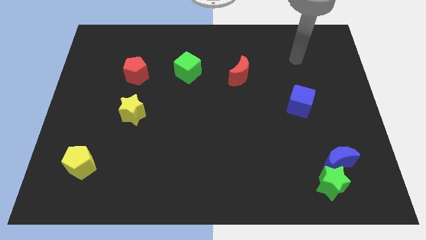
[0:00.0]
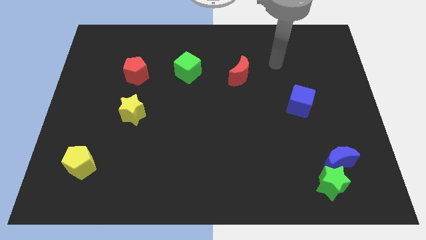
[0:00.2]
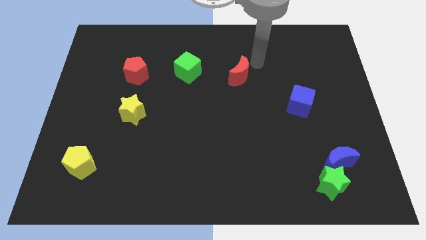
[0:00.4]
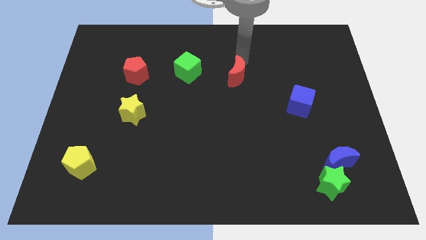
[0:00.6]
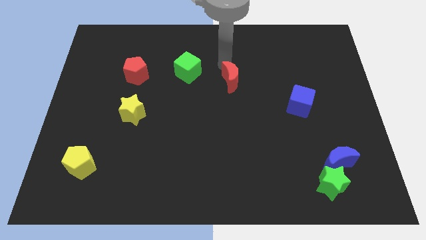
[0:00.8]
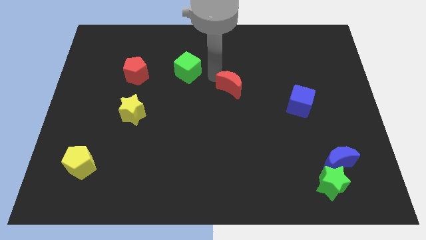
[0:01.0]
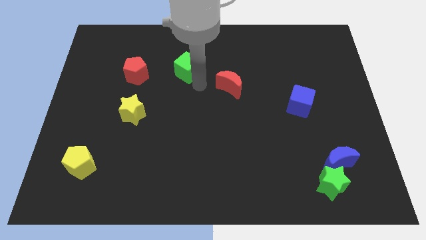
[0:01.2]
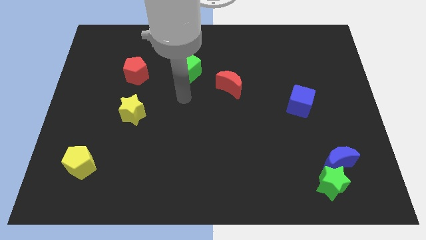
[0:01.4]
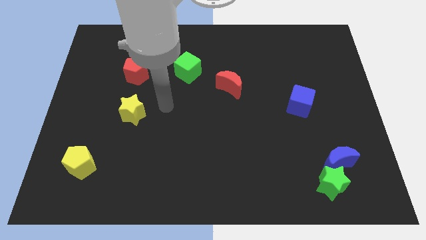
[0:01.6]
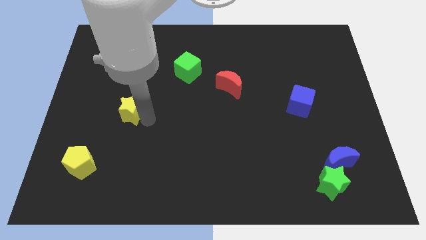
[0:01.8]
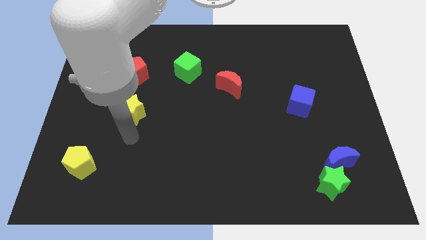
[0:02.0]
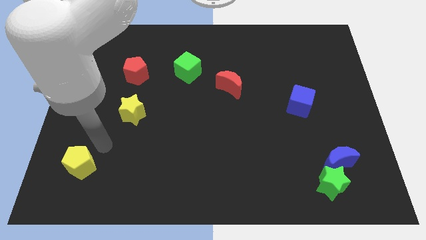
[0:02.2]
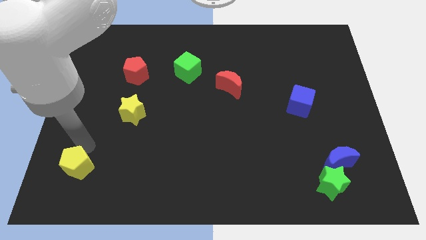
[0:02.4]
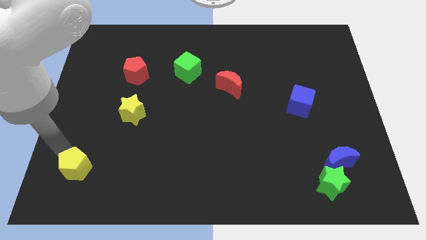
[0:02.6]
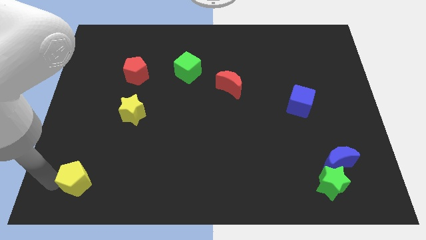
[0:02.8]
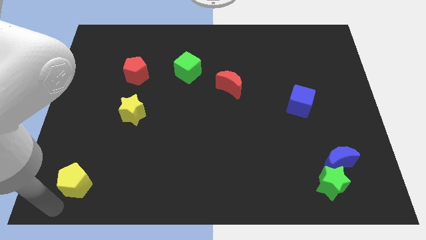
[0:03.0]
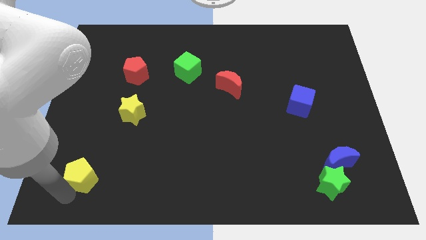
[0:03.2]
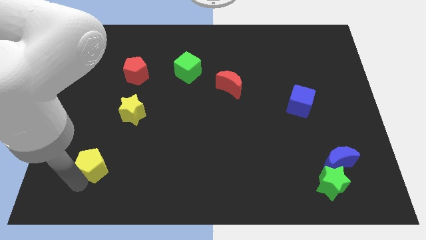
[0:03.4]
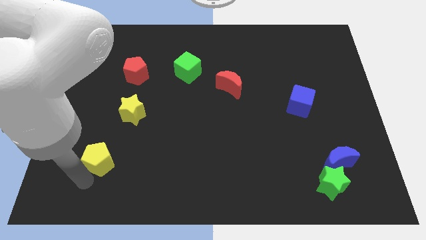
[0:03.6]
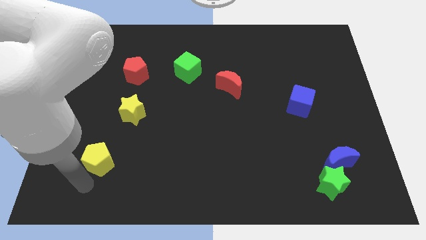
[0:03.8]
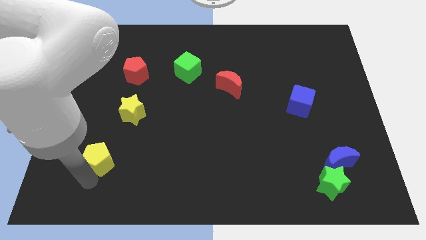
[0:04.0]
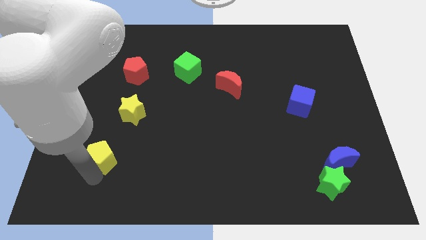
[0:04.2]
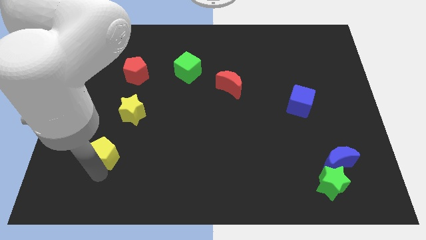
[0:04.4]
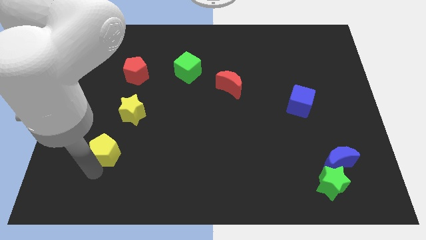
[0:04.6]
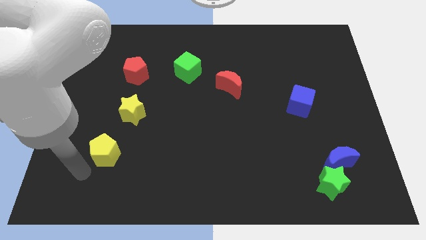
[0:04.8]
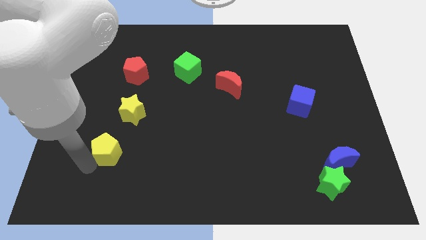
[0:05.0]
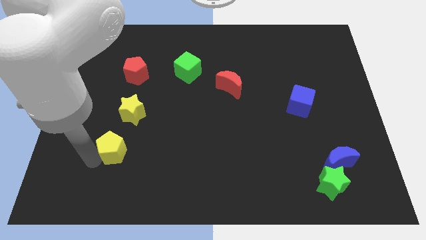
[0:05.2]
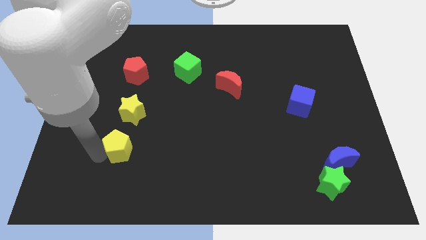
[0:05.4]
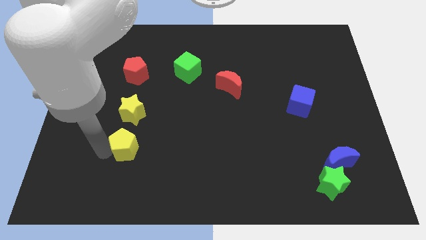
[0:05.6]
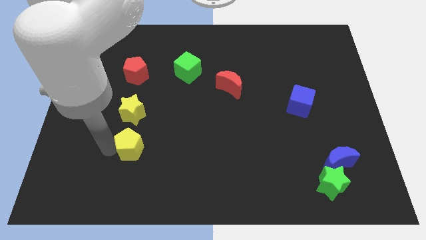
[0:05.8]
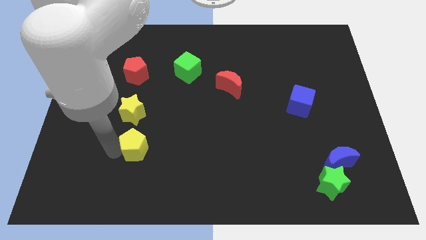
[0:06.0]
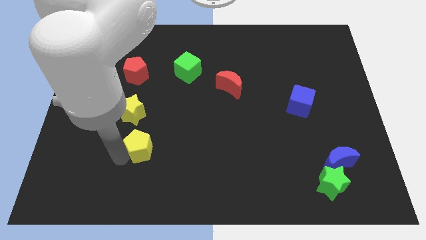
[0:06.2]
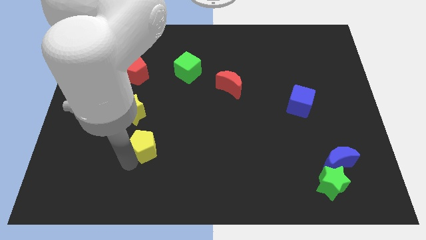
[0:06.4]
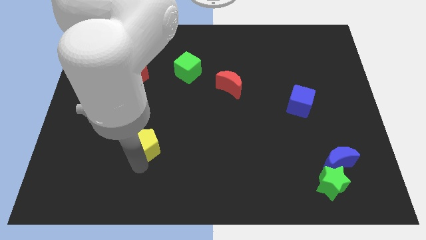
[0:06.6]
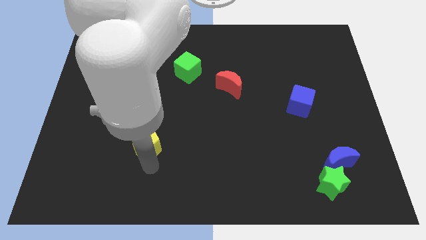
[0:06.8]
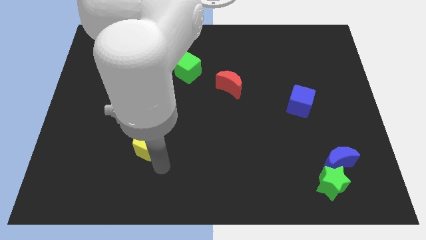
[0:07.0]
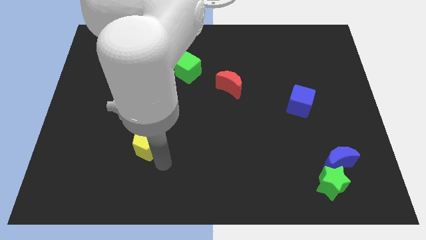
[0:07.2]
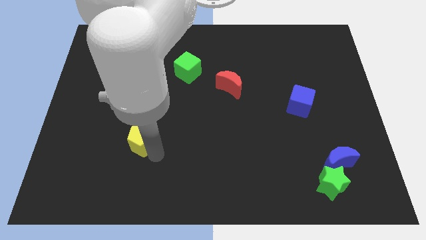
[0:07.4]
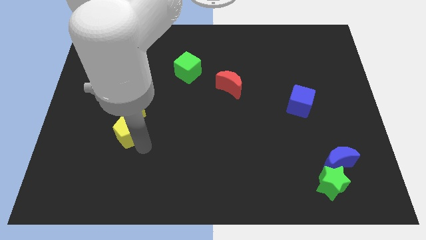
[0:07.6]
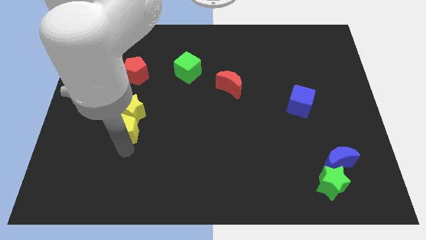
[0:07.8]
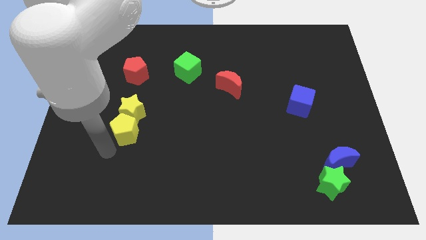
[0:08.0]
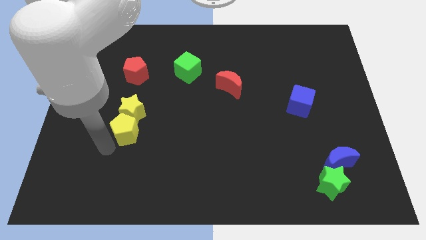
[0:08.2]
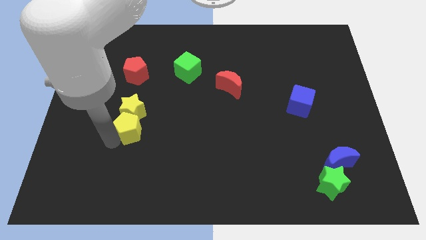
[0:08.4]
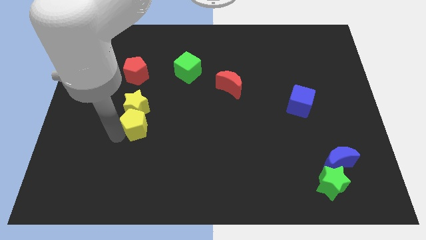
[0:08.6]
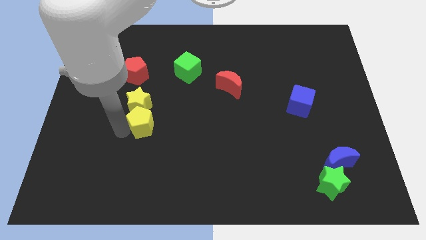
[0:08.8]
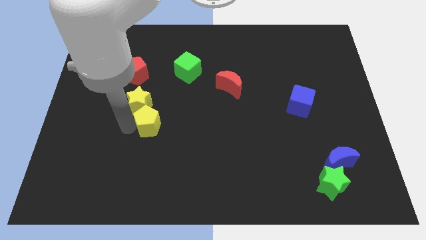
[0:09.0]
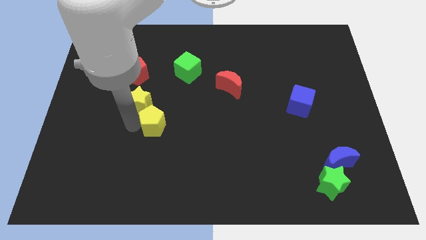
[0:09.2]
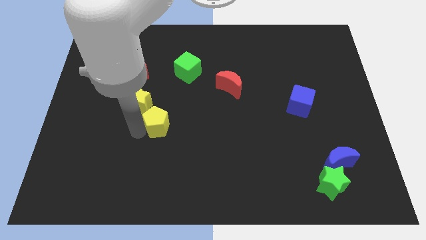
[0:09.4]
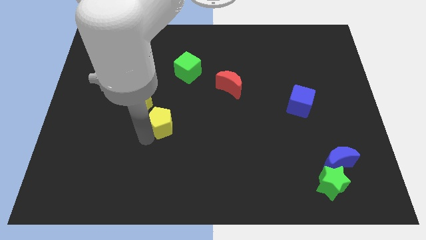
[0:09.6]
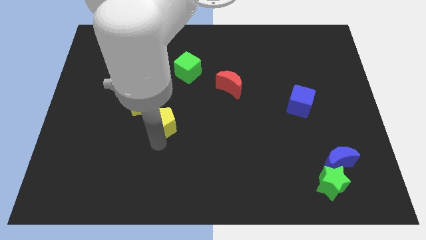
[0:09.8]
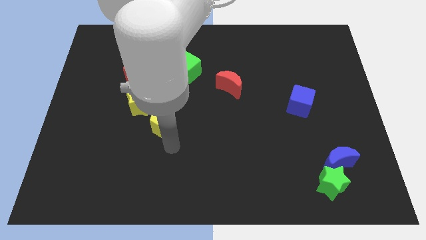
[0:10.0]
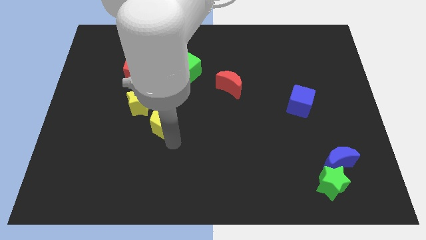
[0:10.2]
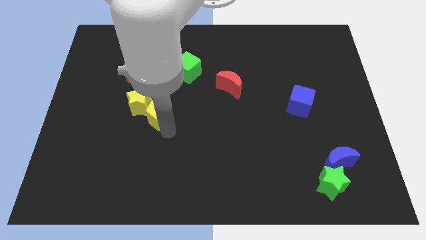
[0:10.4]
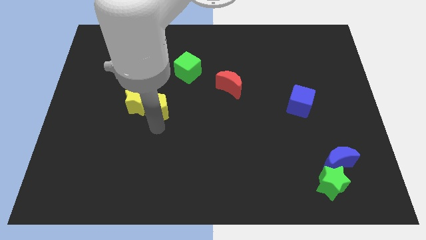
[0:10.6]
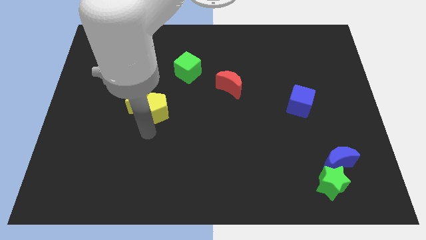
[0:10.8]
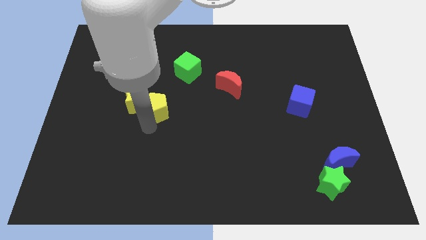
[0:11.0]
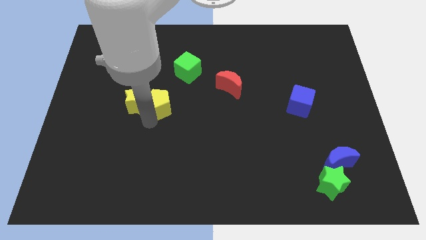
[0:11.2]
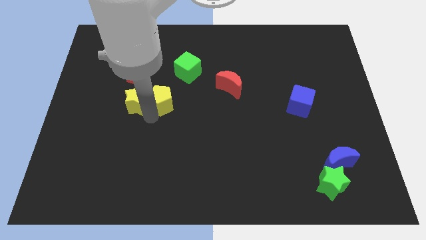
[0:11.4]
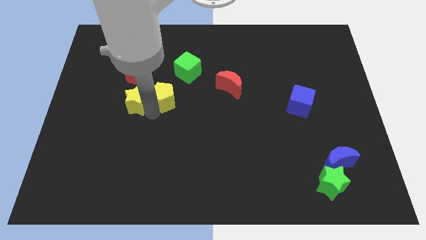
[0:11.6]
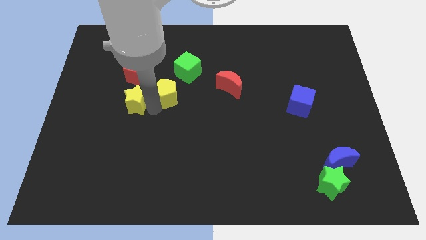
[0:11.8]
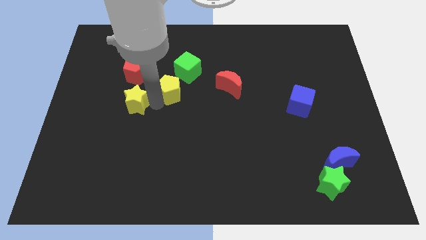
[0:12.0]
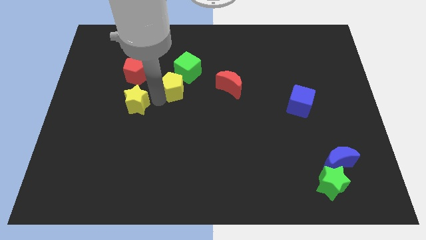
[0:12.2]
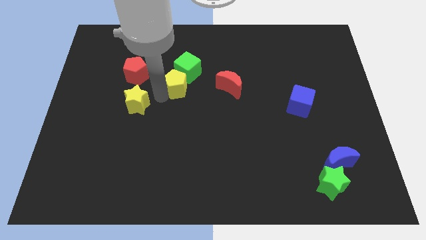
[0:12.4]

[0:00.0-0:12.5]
slide the yellow pentagon close to the green cube
